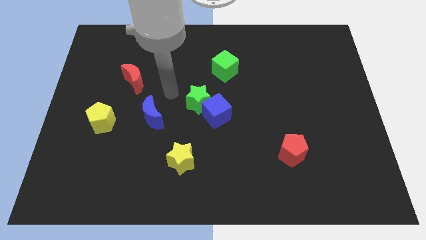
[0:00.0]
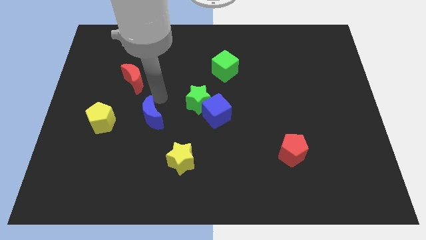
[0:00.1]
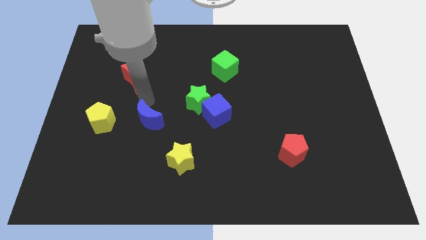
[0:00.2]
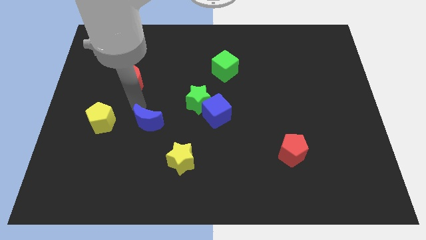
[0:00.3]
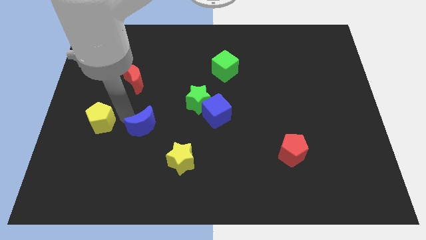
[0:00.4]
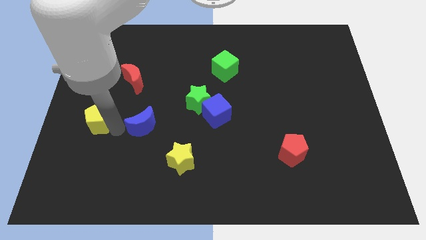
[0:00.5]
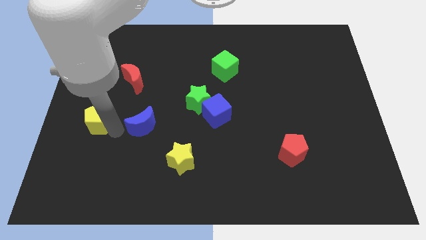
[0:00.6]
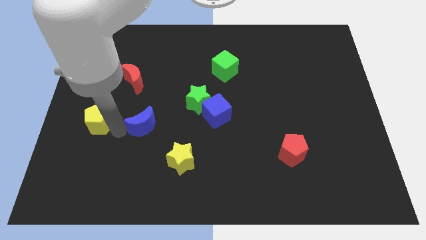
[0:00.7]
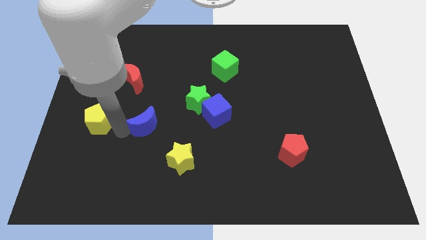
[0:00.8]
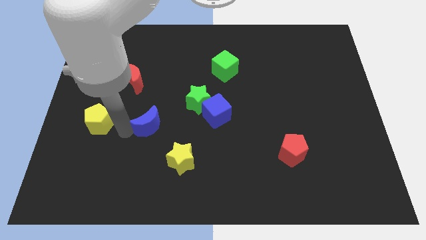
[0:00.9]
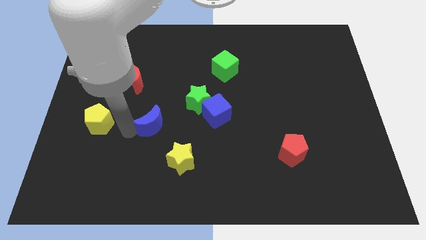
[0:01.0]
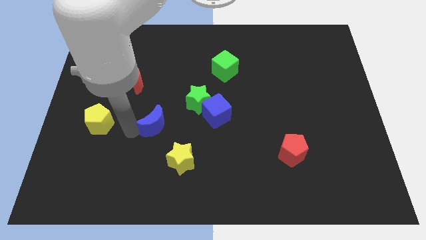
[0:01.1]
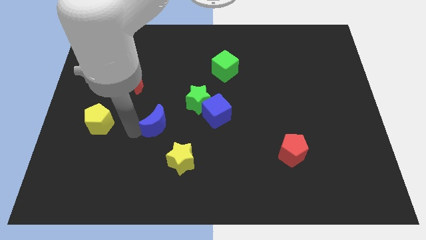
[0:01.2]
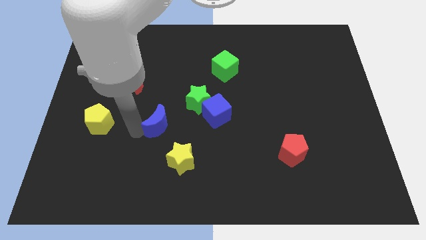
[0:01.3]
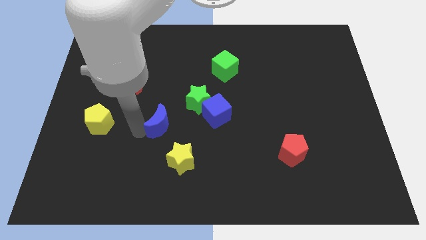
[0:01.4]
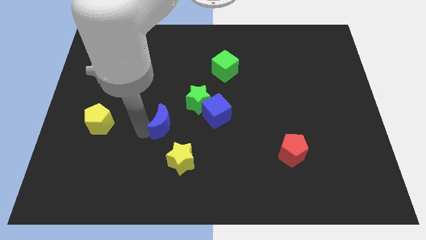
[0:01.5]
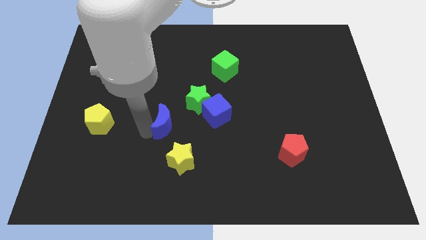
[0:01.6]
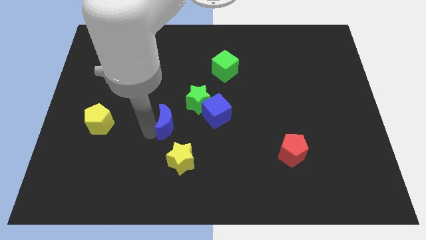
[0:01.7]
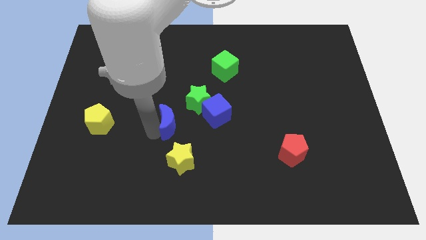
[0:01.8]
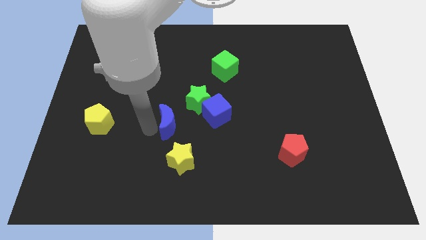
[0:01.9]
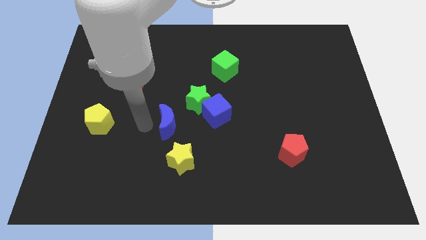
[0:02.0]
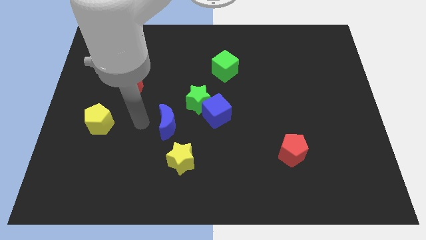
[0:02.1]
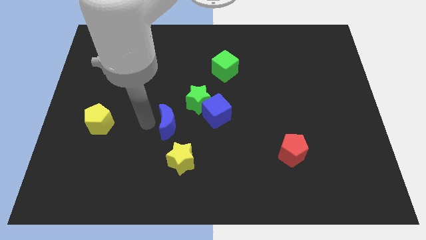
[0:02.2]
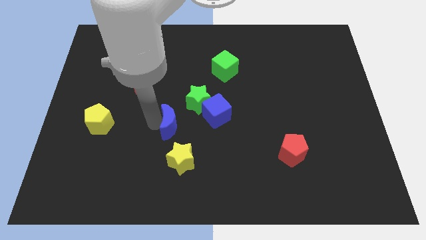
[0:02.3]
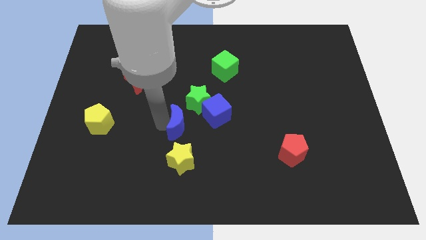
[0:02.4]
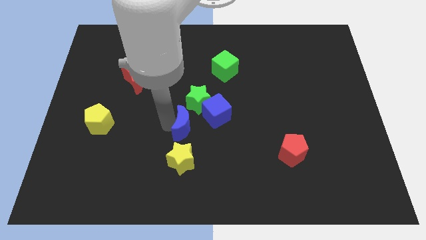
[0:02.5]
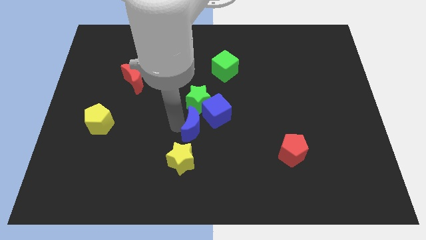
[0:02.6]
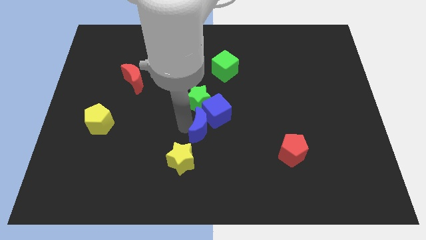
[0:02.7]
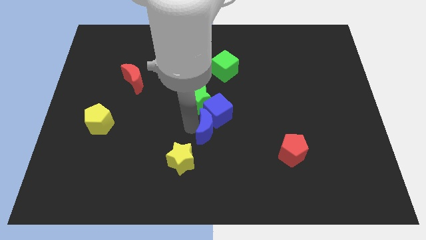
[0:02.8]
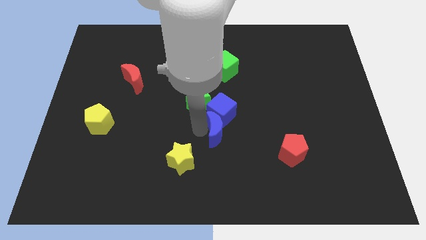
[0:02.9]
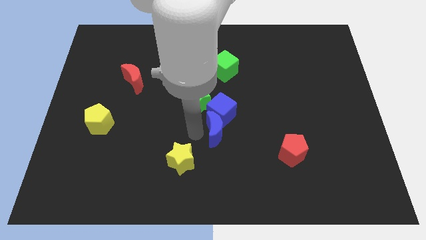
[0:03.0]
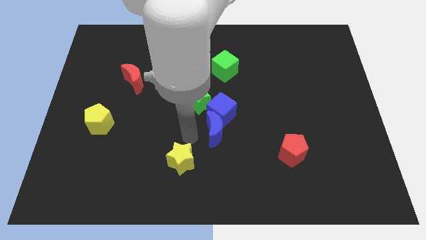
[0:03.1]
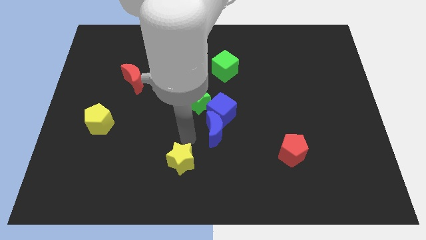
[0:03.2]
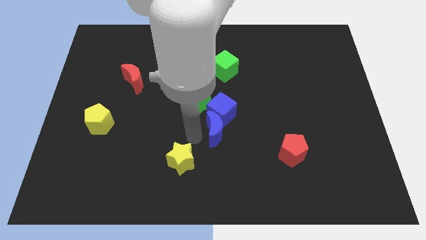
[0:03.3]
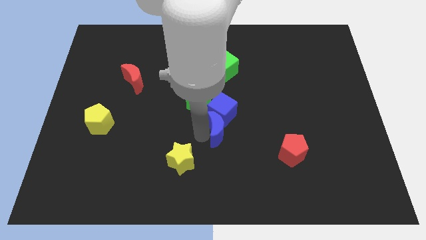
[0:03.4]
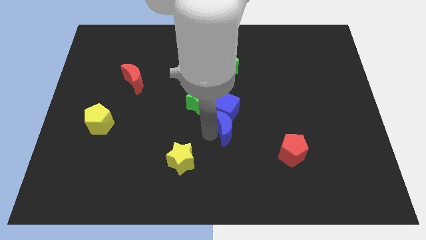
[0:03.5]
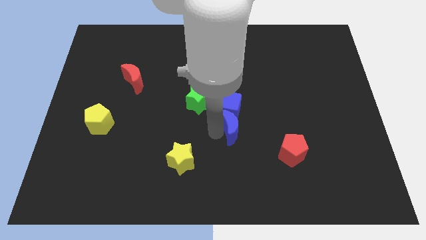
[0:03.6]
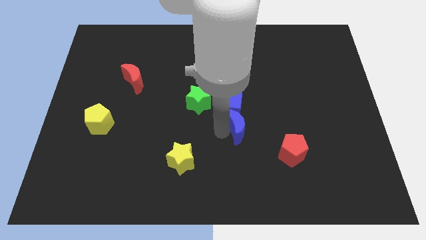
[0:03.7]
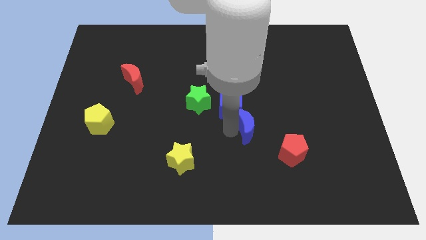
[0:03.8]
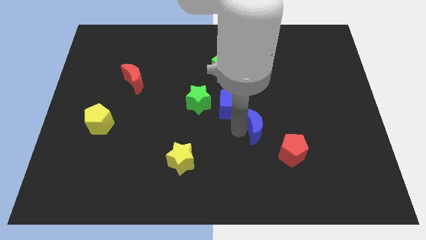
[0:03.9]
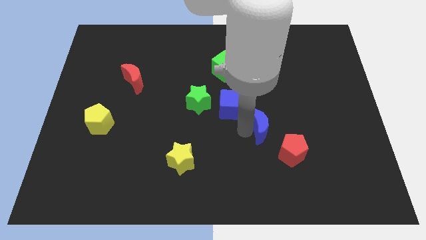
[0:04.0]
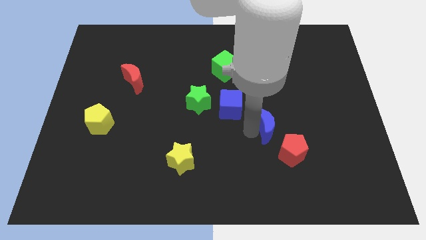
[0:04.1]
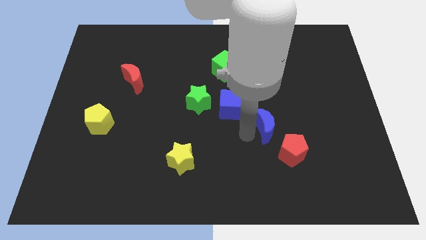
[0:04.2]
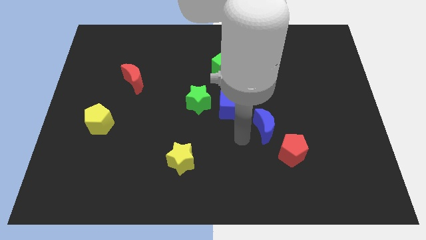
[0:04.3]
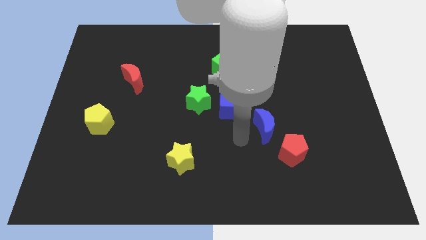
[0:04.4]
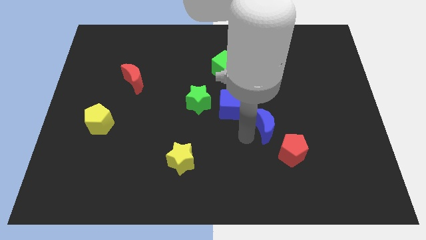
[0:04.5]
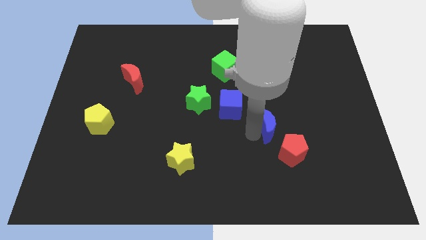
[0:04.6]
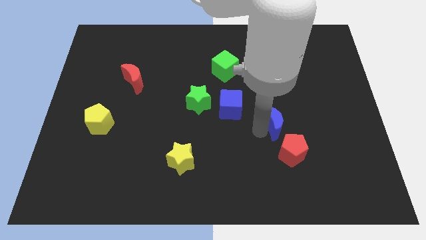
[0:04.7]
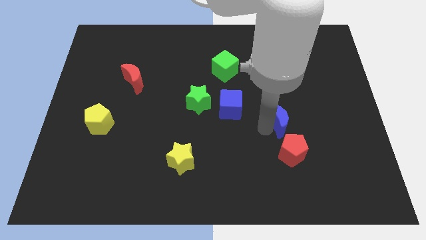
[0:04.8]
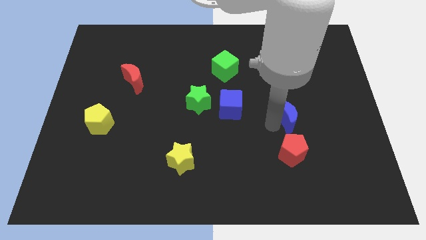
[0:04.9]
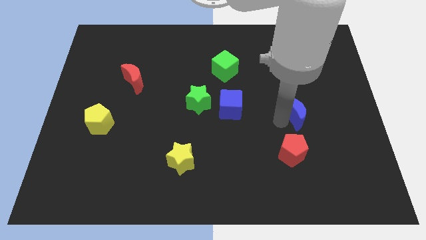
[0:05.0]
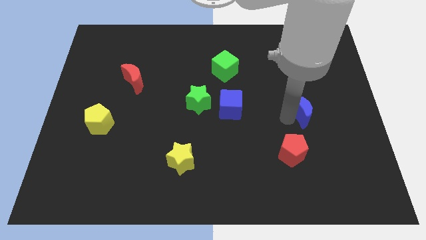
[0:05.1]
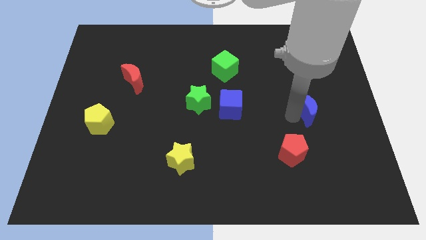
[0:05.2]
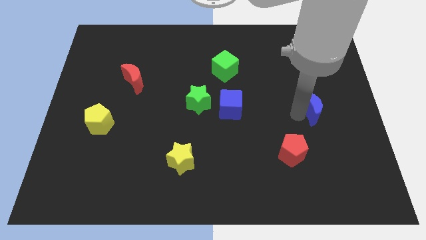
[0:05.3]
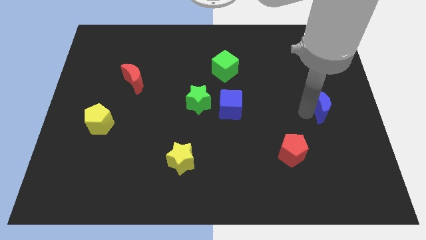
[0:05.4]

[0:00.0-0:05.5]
put the blue moon to the center right

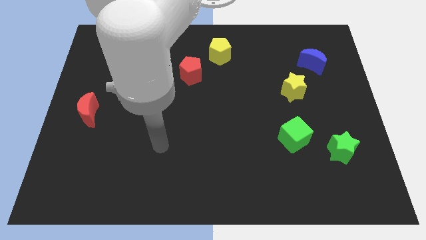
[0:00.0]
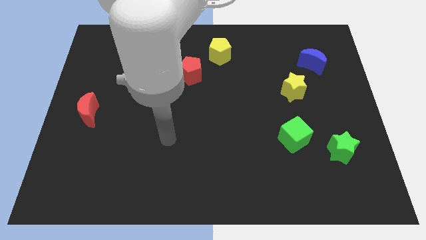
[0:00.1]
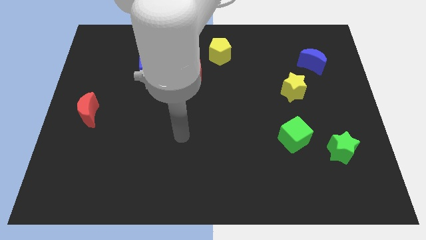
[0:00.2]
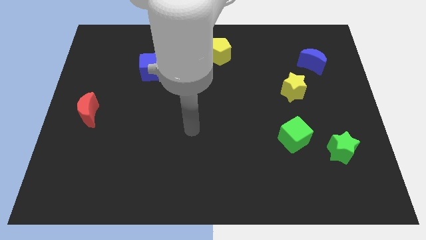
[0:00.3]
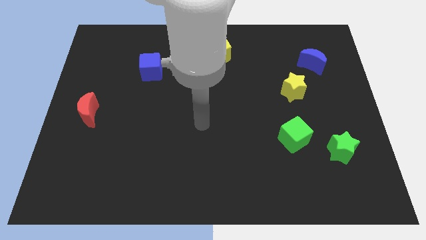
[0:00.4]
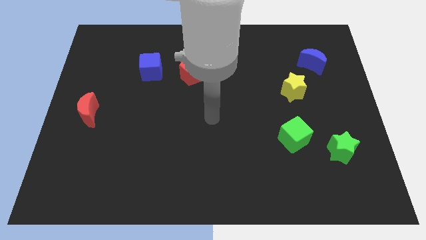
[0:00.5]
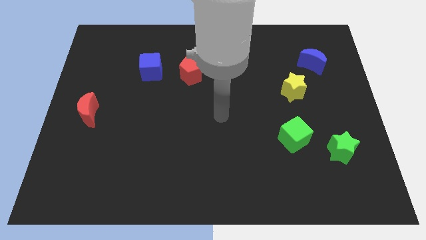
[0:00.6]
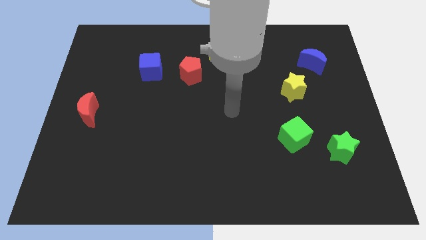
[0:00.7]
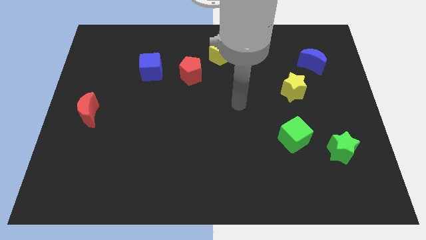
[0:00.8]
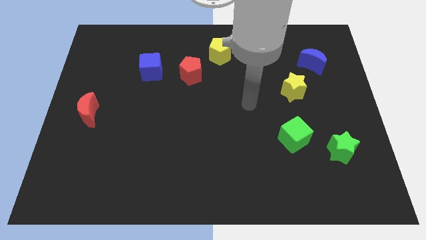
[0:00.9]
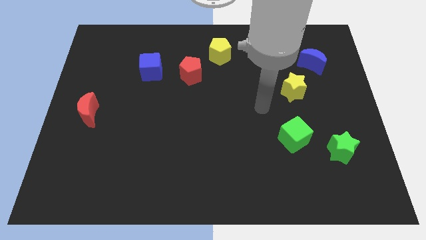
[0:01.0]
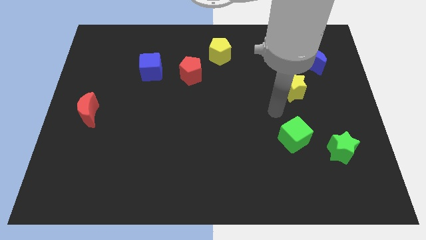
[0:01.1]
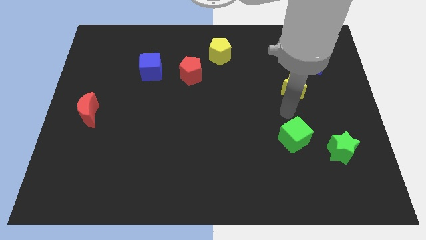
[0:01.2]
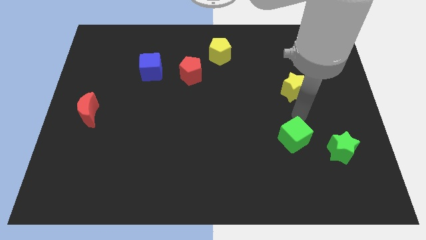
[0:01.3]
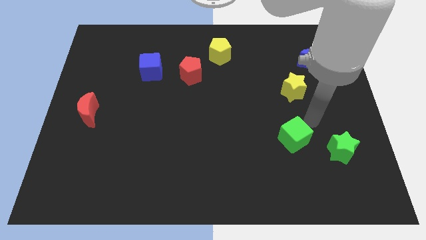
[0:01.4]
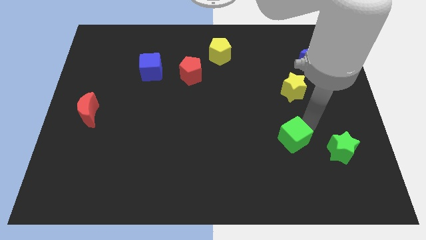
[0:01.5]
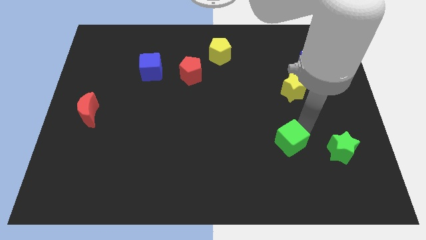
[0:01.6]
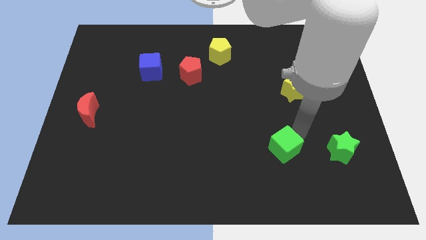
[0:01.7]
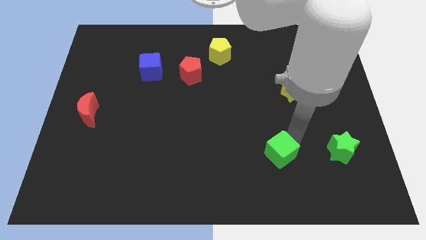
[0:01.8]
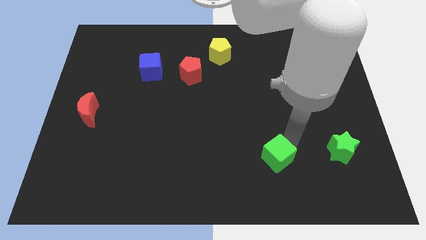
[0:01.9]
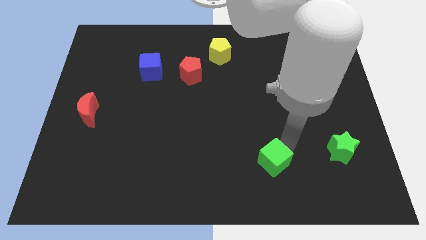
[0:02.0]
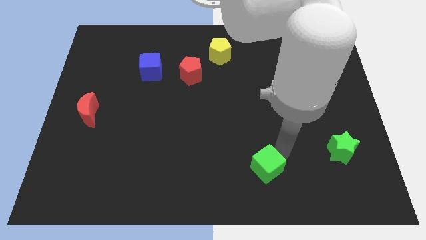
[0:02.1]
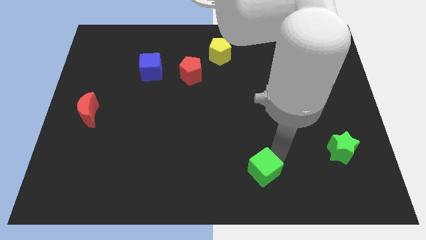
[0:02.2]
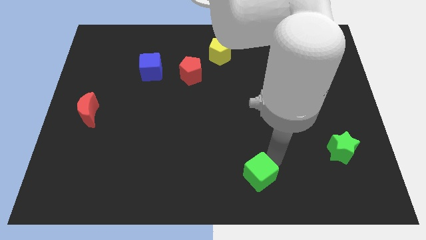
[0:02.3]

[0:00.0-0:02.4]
move the green cube to the bottom

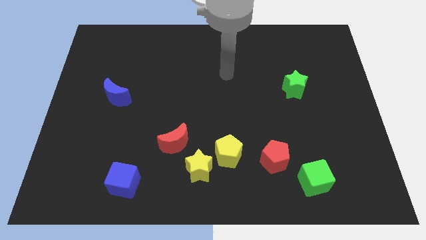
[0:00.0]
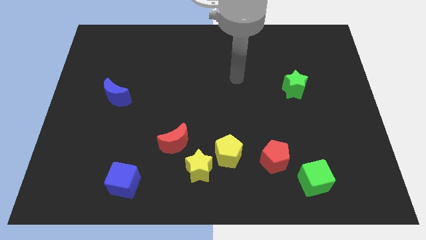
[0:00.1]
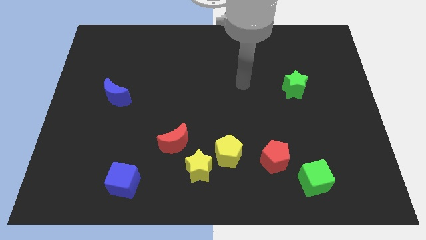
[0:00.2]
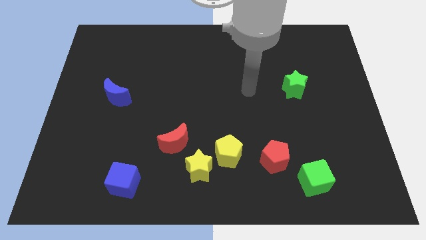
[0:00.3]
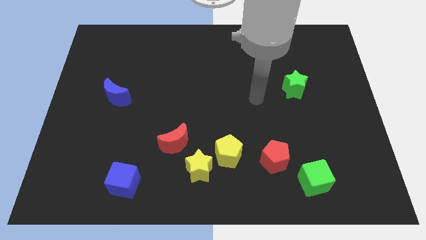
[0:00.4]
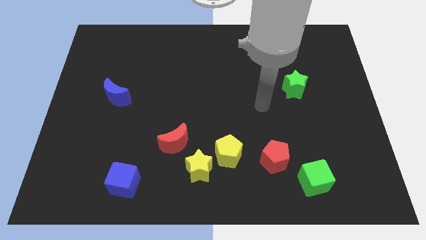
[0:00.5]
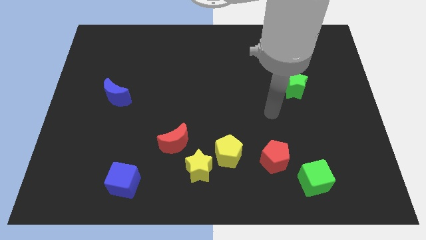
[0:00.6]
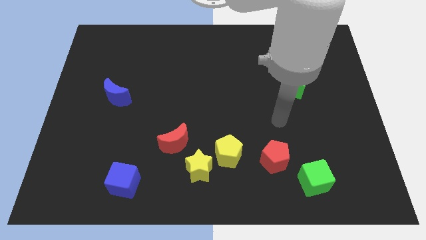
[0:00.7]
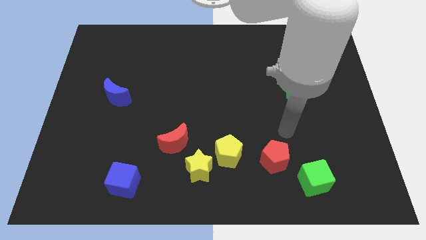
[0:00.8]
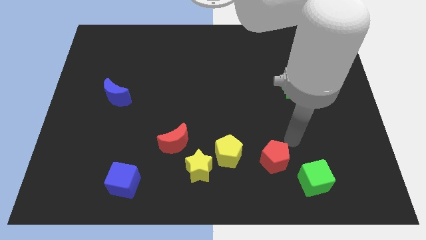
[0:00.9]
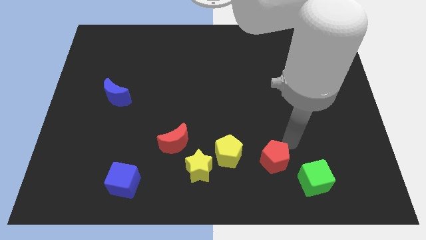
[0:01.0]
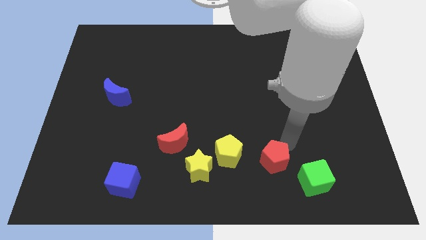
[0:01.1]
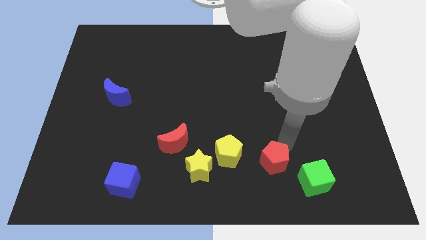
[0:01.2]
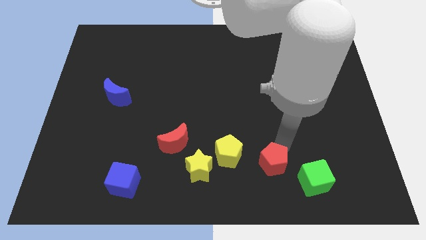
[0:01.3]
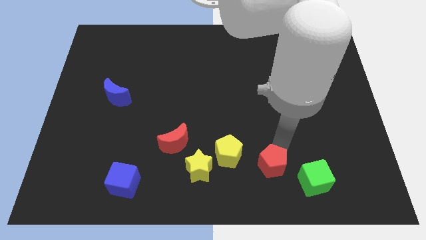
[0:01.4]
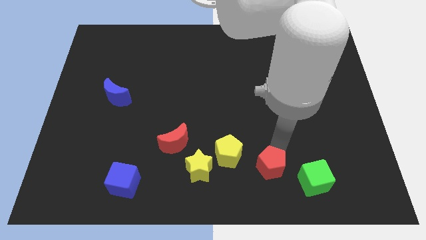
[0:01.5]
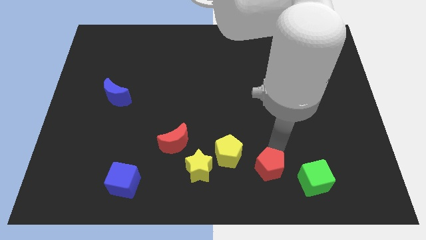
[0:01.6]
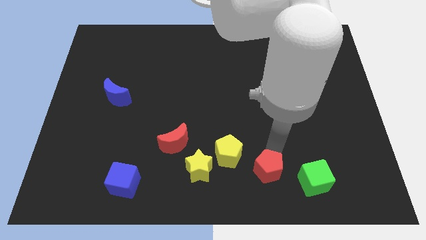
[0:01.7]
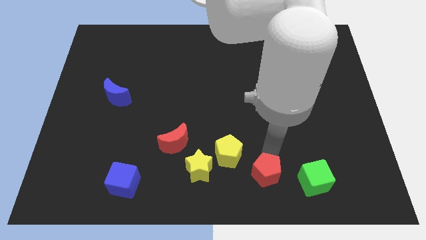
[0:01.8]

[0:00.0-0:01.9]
slide the red pentagon to the bottom side
